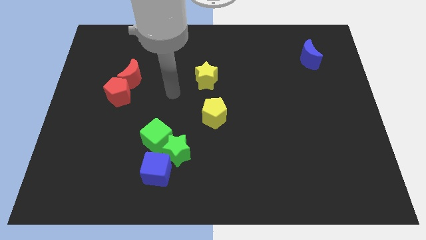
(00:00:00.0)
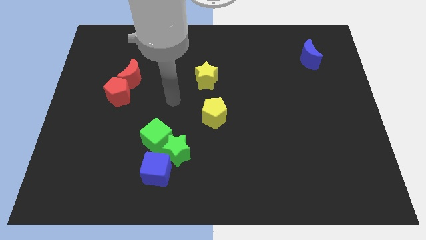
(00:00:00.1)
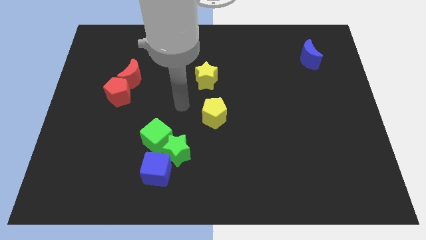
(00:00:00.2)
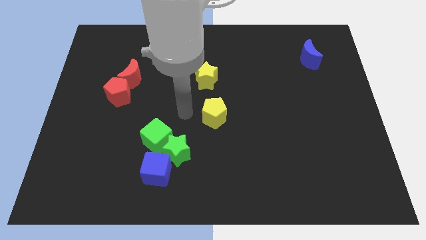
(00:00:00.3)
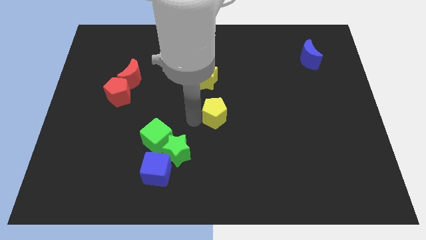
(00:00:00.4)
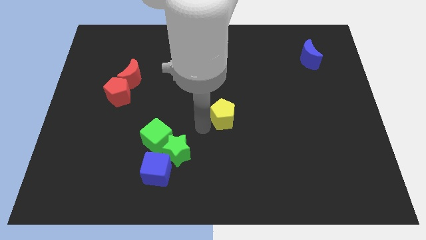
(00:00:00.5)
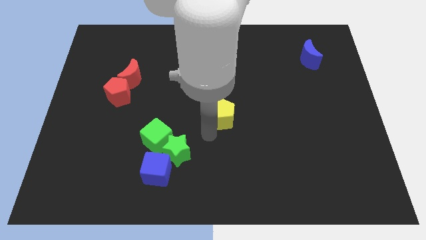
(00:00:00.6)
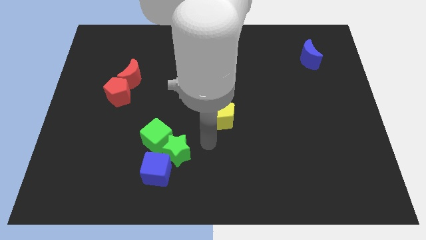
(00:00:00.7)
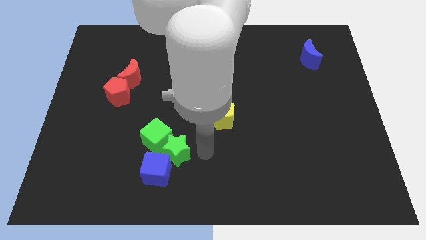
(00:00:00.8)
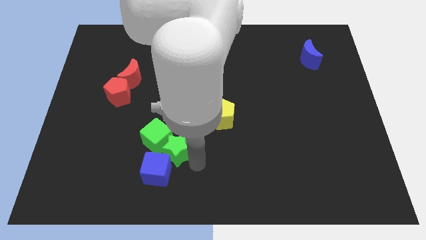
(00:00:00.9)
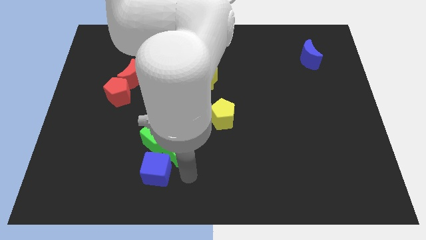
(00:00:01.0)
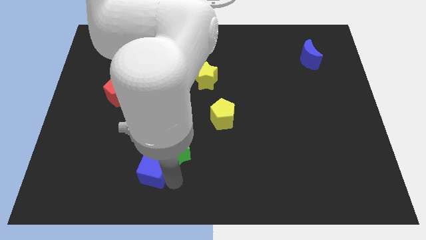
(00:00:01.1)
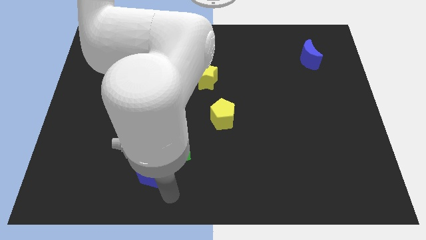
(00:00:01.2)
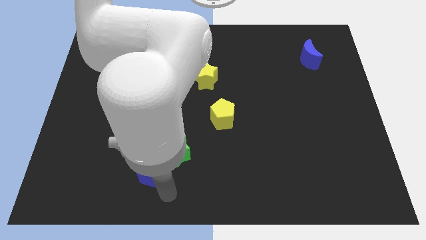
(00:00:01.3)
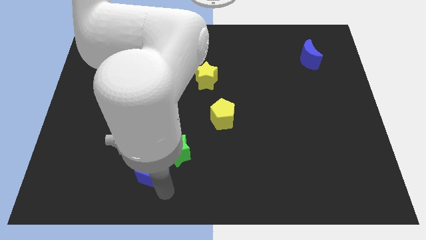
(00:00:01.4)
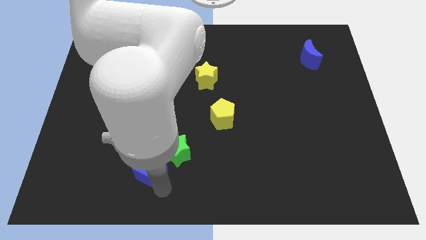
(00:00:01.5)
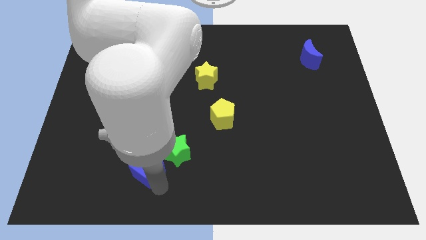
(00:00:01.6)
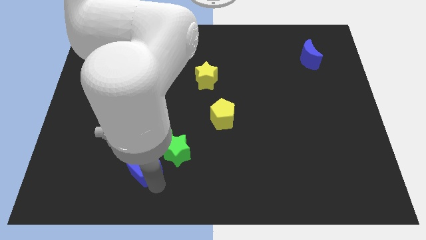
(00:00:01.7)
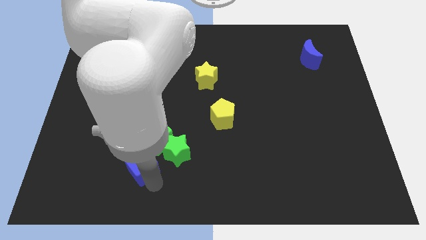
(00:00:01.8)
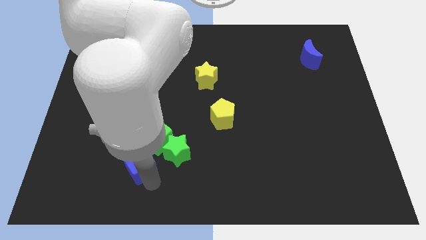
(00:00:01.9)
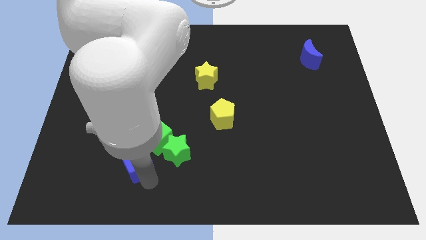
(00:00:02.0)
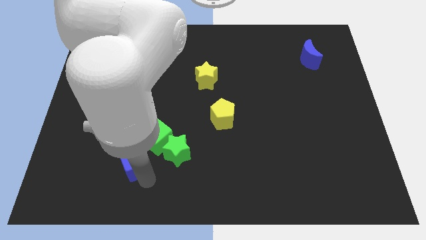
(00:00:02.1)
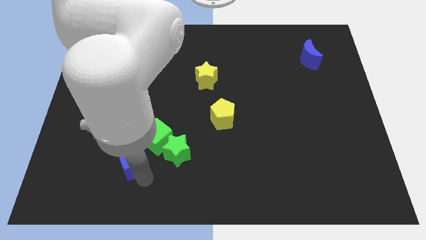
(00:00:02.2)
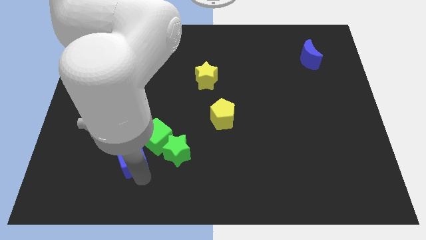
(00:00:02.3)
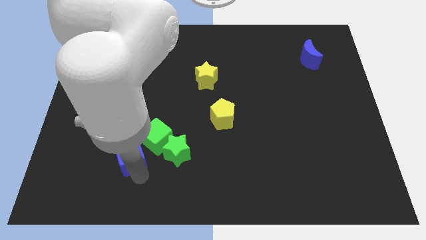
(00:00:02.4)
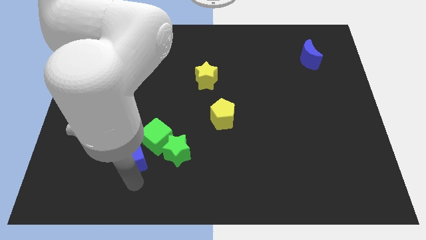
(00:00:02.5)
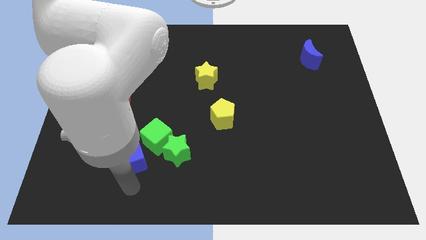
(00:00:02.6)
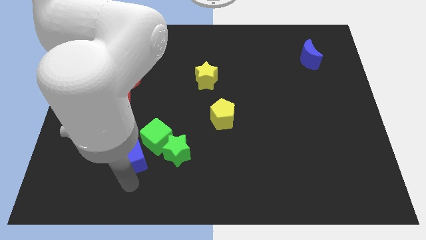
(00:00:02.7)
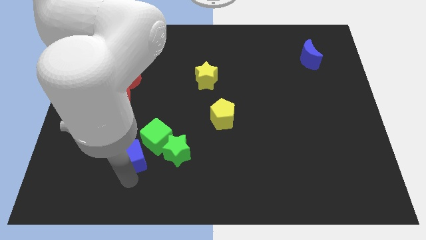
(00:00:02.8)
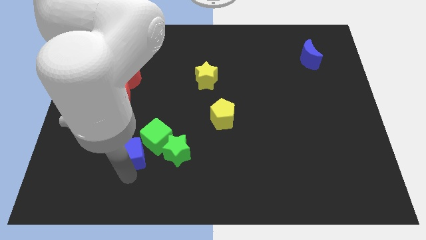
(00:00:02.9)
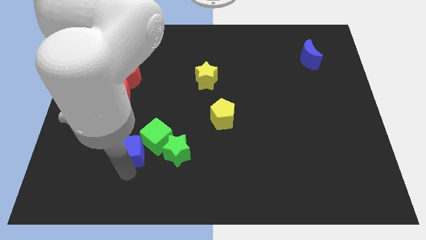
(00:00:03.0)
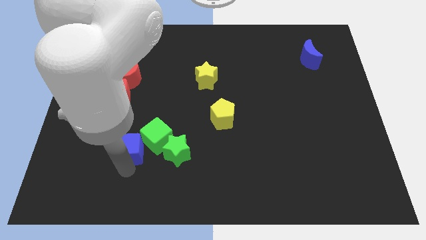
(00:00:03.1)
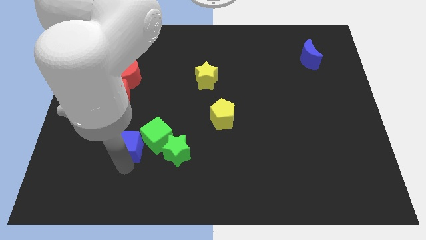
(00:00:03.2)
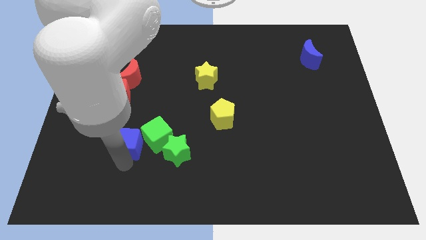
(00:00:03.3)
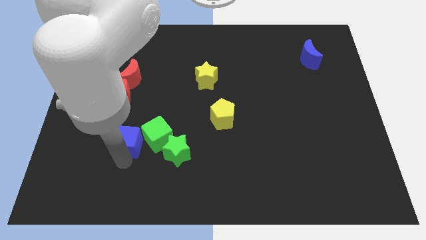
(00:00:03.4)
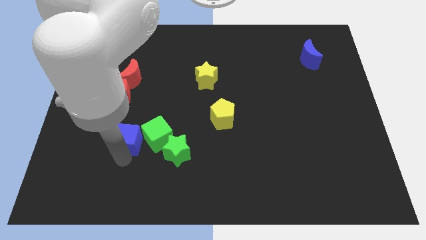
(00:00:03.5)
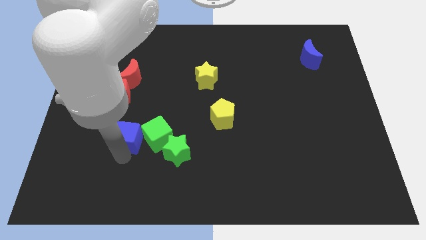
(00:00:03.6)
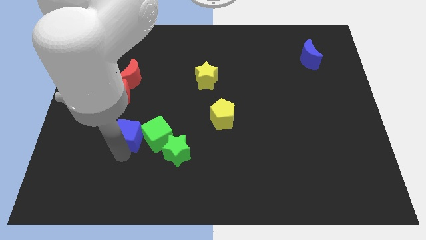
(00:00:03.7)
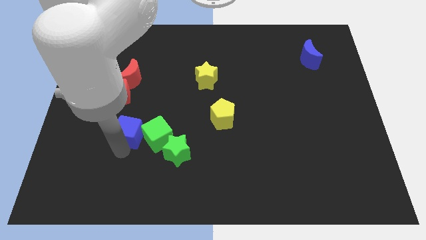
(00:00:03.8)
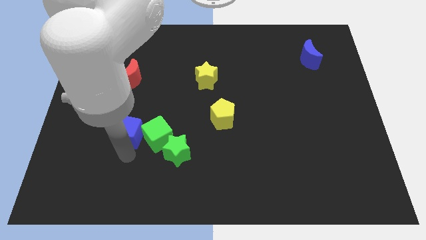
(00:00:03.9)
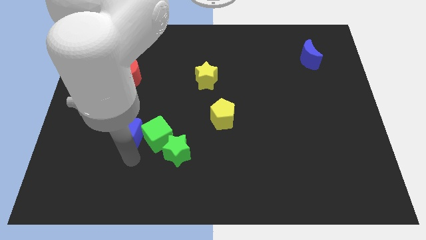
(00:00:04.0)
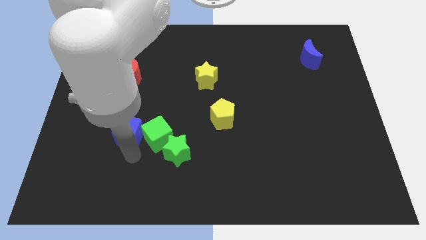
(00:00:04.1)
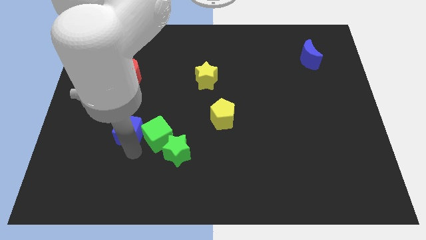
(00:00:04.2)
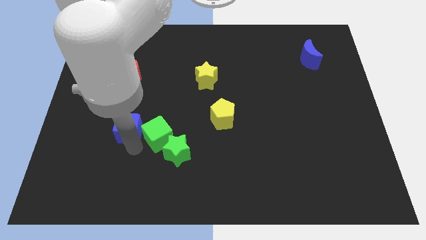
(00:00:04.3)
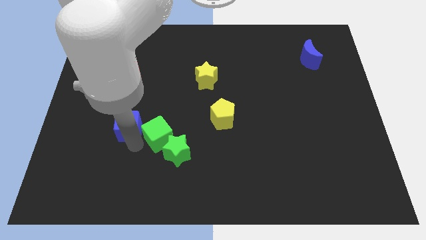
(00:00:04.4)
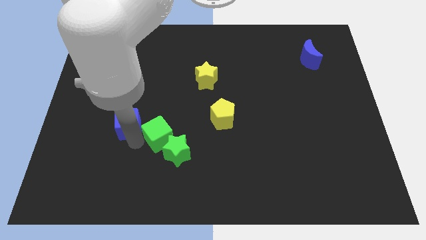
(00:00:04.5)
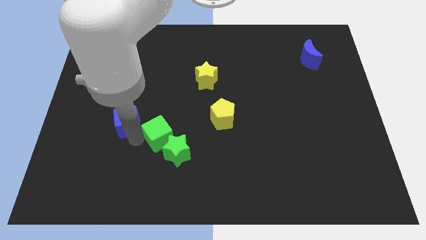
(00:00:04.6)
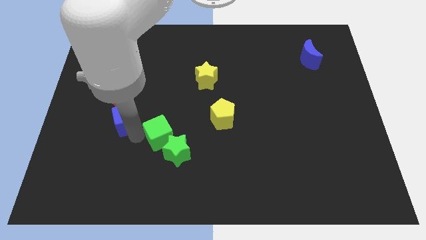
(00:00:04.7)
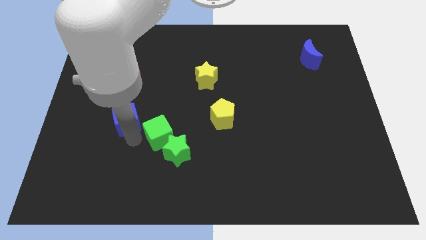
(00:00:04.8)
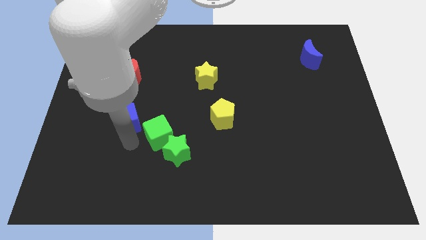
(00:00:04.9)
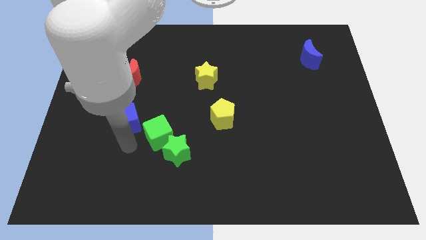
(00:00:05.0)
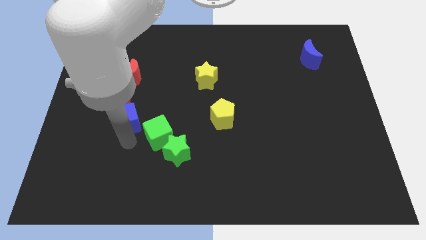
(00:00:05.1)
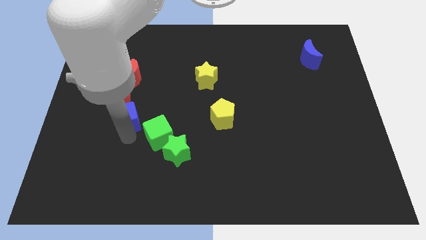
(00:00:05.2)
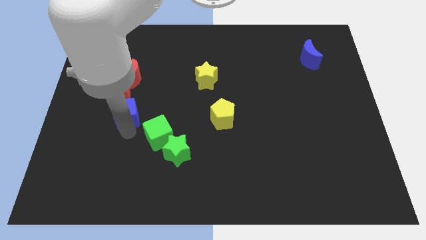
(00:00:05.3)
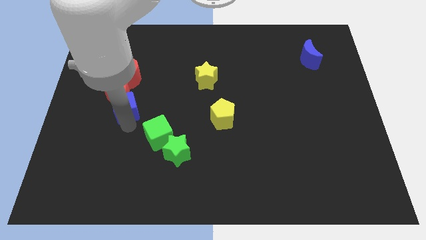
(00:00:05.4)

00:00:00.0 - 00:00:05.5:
put the blue cube next to the red pentagon
